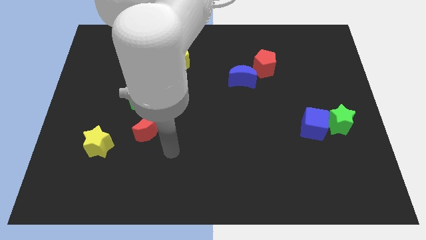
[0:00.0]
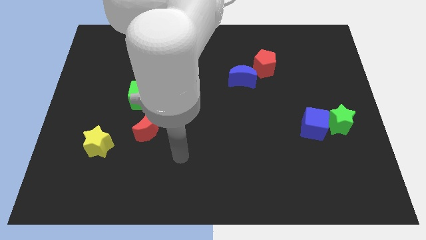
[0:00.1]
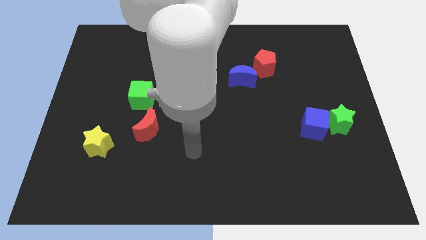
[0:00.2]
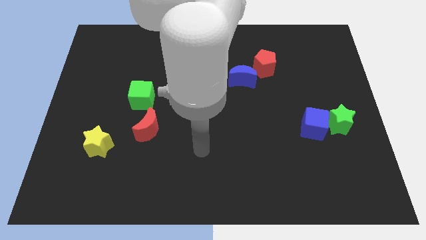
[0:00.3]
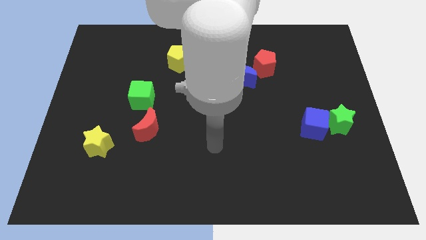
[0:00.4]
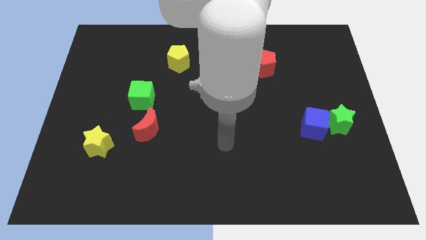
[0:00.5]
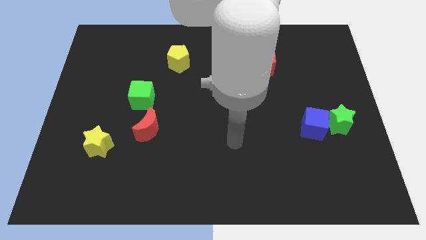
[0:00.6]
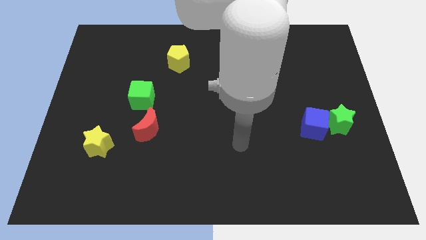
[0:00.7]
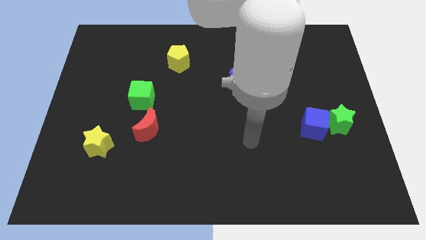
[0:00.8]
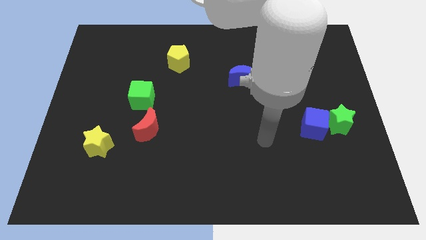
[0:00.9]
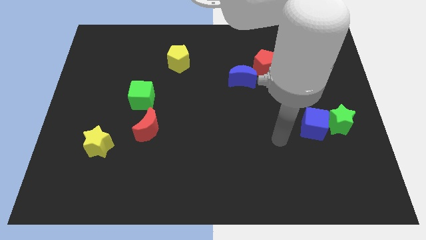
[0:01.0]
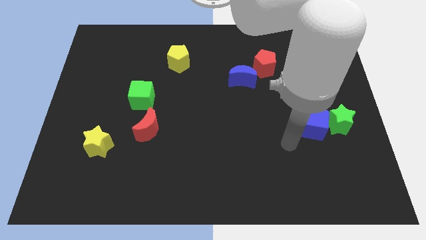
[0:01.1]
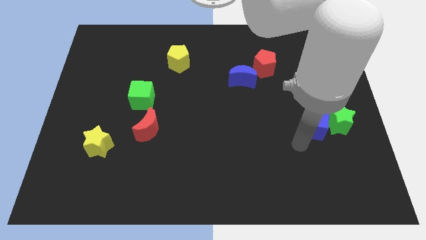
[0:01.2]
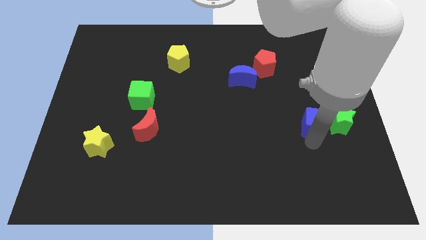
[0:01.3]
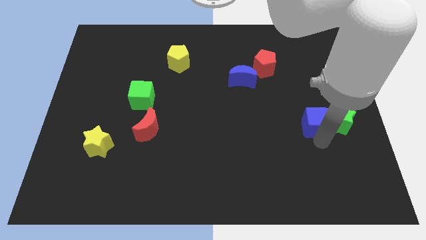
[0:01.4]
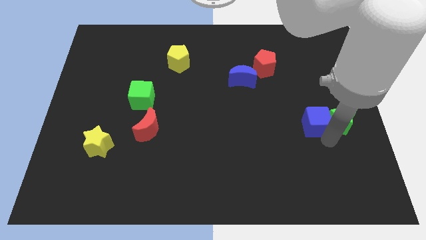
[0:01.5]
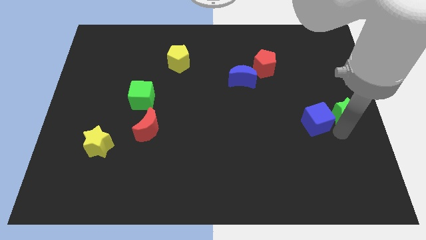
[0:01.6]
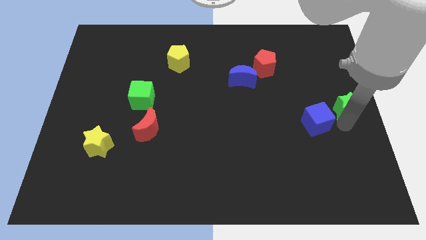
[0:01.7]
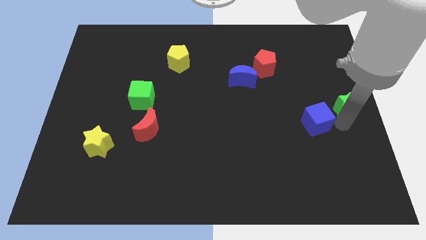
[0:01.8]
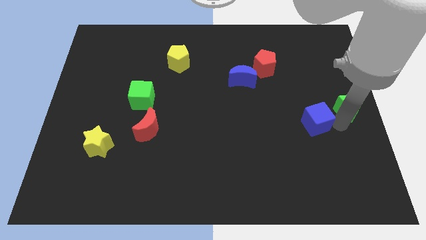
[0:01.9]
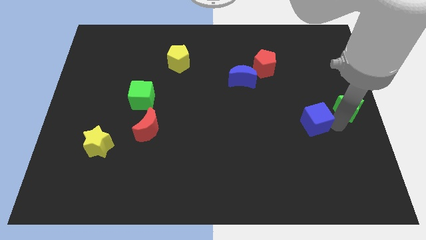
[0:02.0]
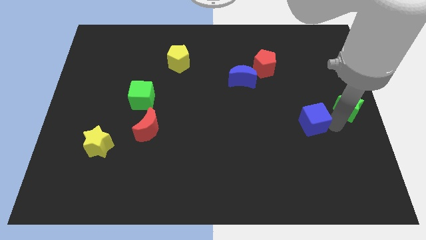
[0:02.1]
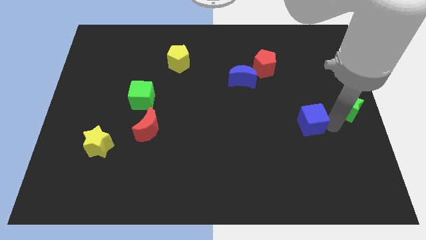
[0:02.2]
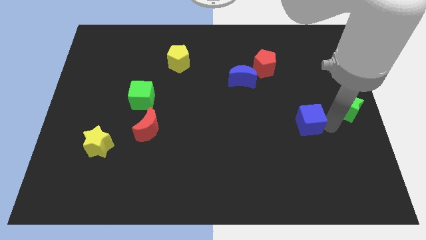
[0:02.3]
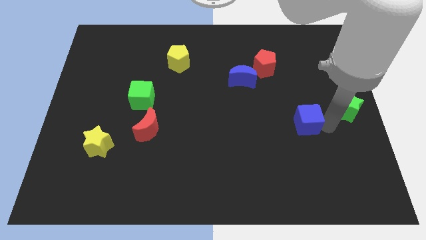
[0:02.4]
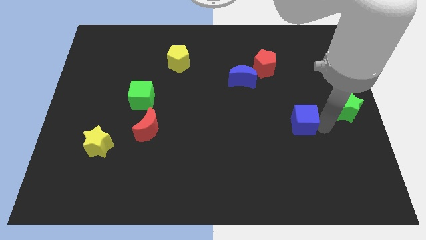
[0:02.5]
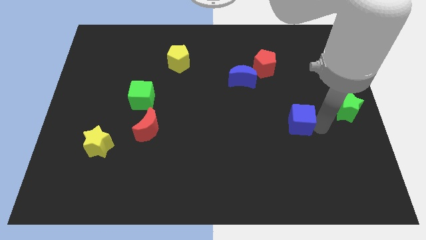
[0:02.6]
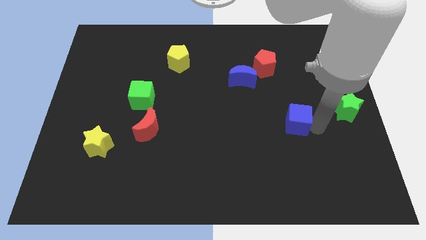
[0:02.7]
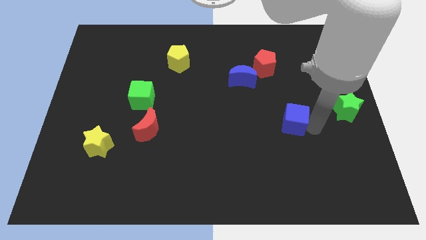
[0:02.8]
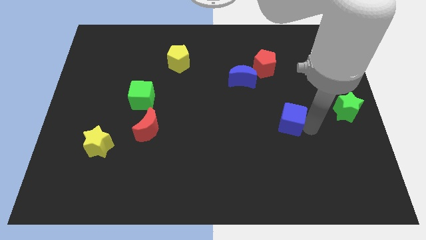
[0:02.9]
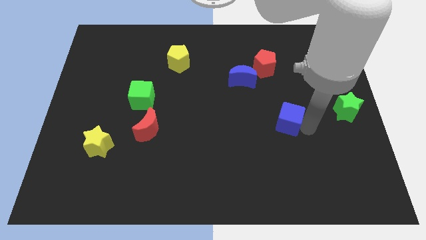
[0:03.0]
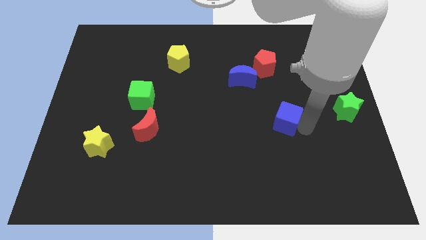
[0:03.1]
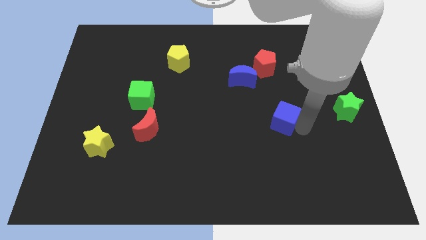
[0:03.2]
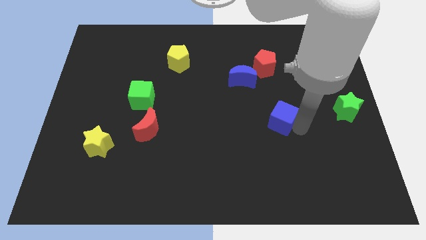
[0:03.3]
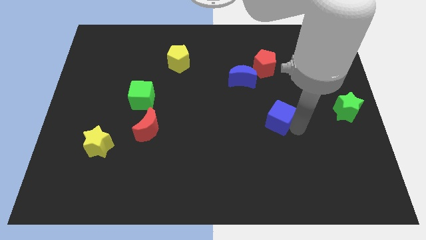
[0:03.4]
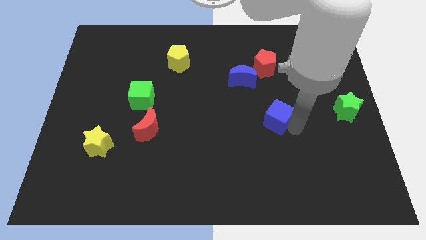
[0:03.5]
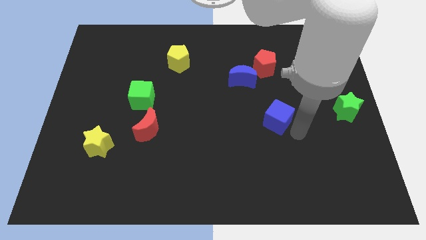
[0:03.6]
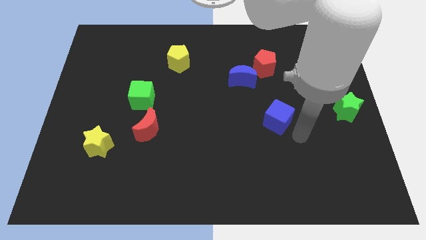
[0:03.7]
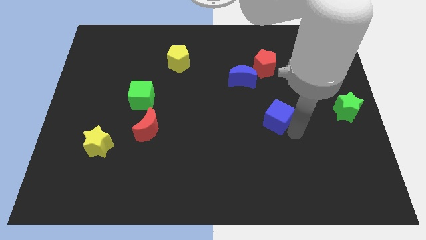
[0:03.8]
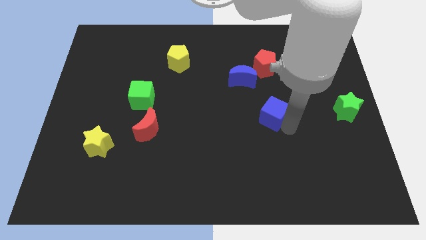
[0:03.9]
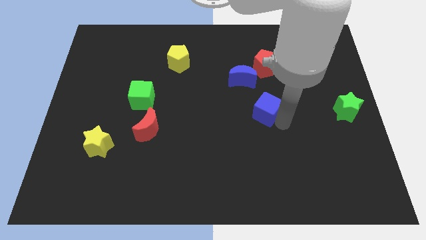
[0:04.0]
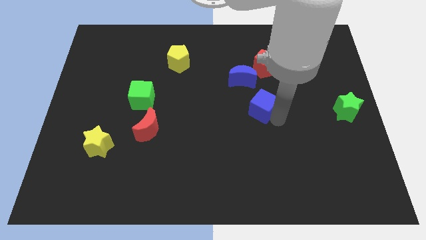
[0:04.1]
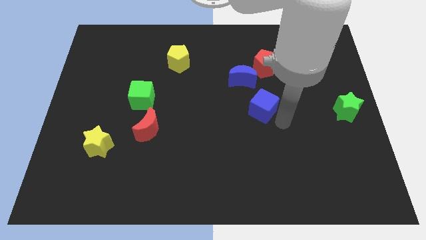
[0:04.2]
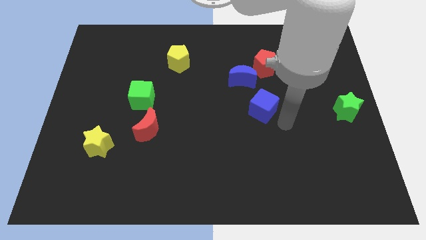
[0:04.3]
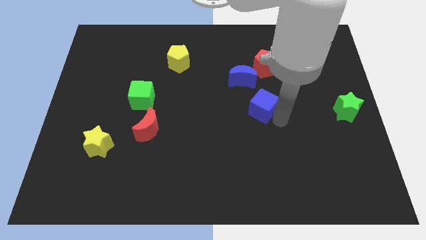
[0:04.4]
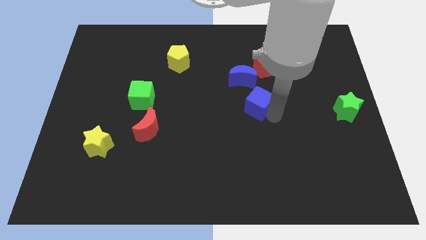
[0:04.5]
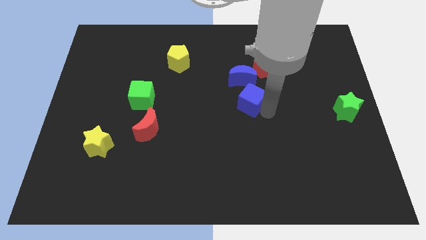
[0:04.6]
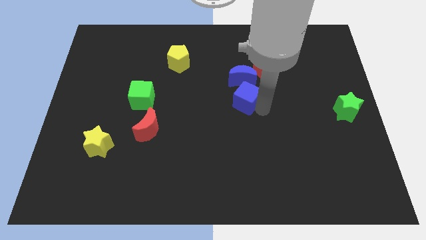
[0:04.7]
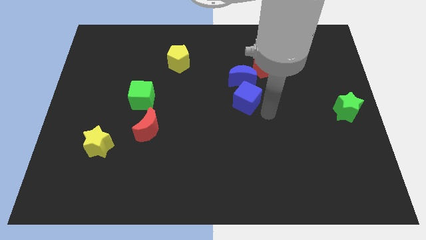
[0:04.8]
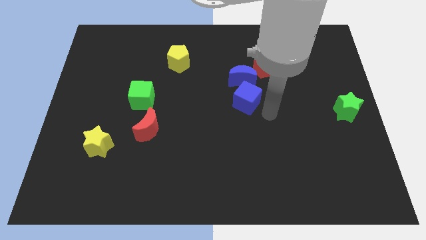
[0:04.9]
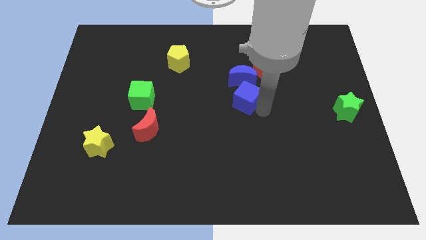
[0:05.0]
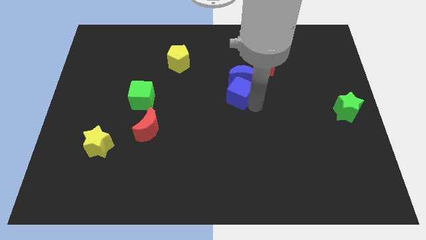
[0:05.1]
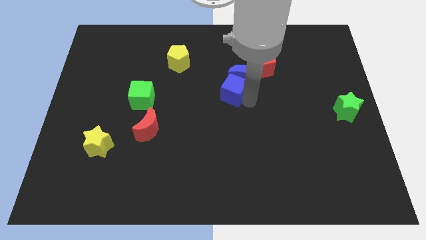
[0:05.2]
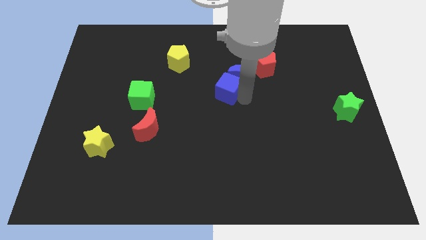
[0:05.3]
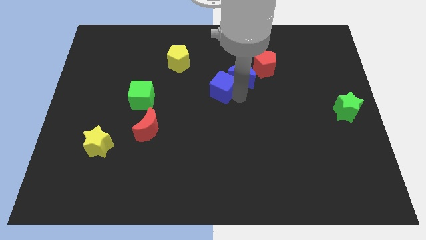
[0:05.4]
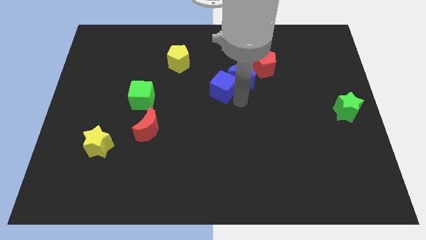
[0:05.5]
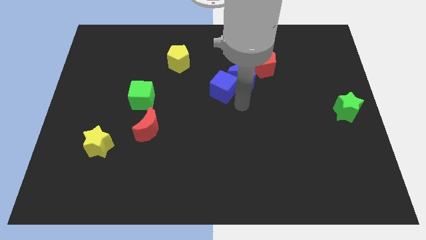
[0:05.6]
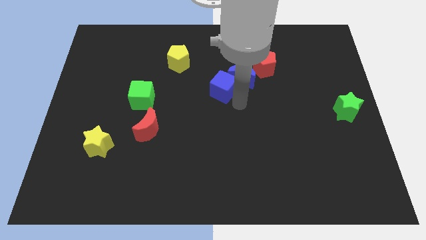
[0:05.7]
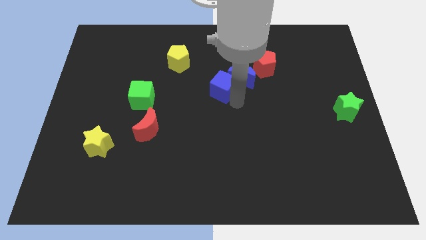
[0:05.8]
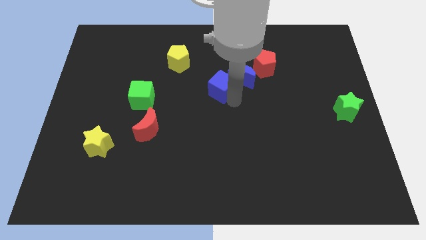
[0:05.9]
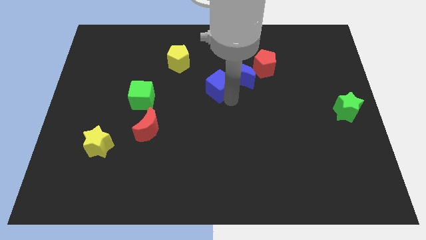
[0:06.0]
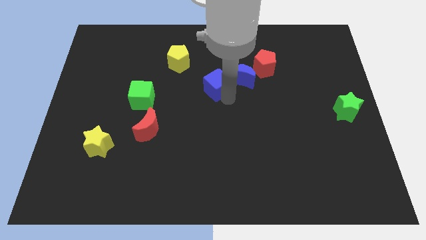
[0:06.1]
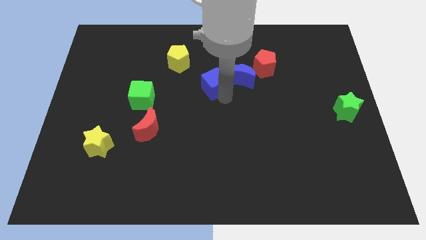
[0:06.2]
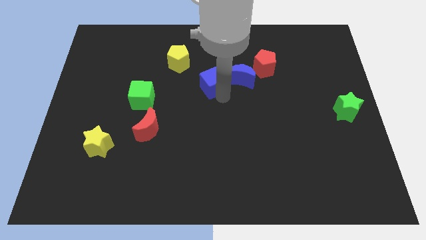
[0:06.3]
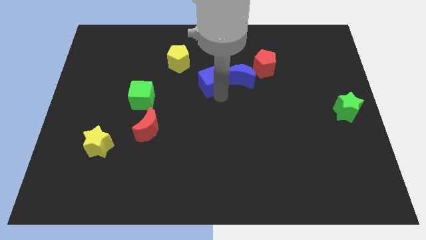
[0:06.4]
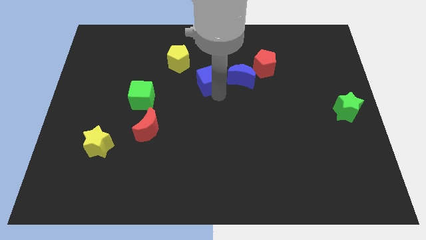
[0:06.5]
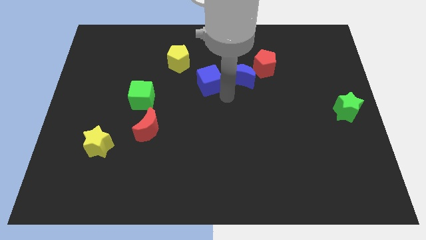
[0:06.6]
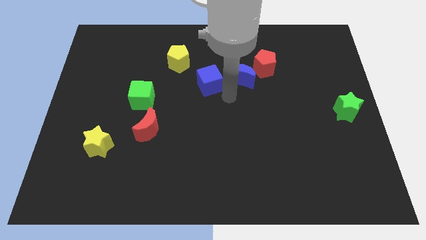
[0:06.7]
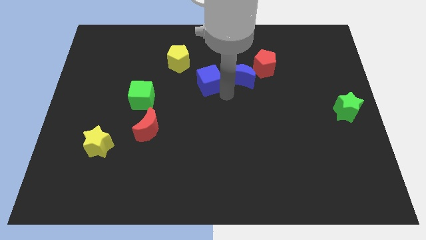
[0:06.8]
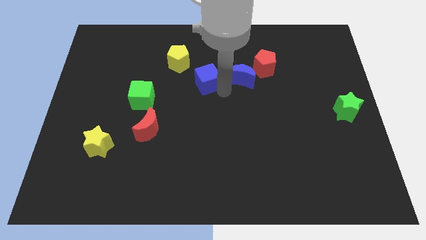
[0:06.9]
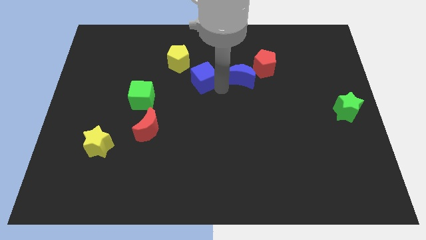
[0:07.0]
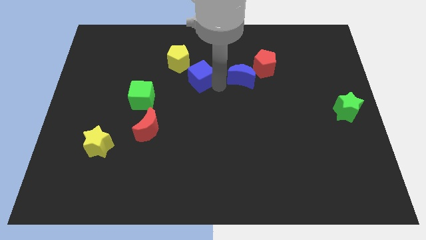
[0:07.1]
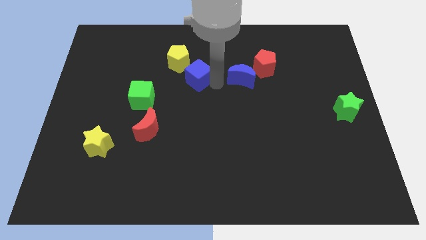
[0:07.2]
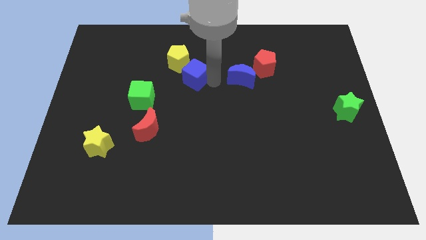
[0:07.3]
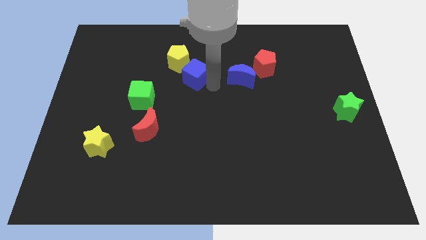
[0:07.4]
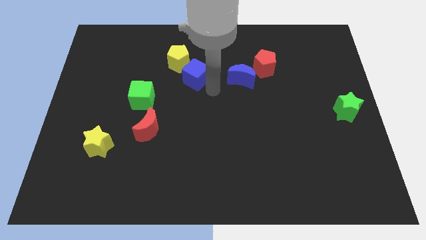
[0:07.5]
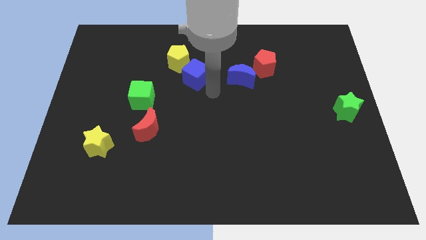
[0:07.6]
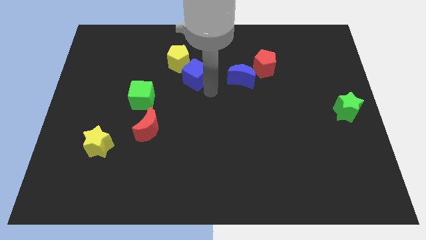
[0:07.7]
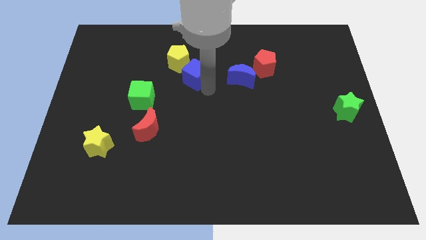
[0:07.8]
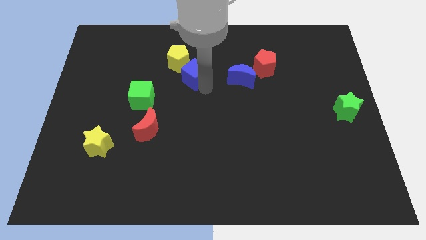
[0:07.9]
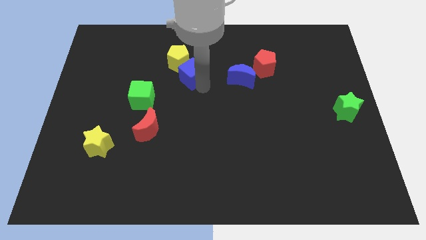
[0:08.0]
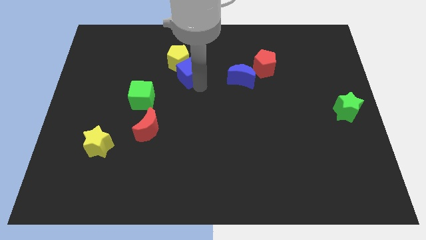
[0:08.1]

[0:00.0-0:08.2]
put the blue cube towards the yellow pentagon
